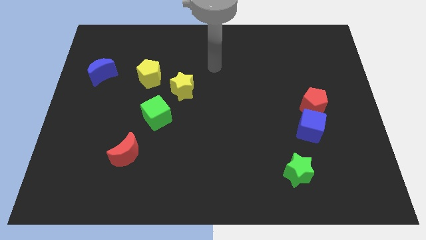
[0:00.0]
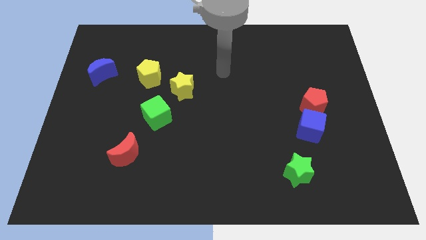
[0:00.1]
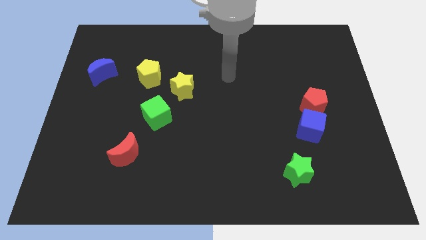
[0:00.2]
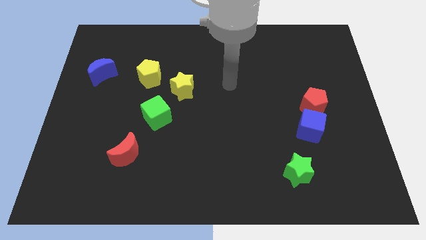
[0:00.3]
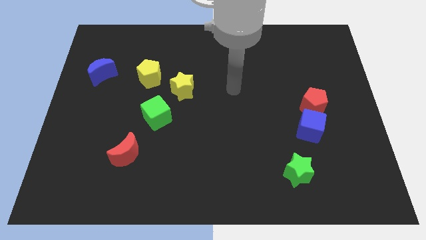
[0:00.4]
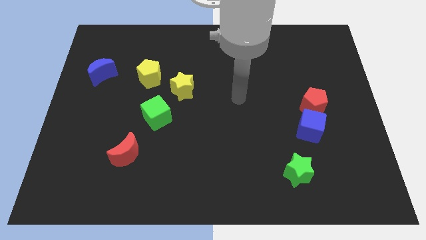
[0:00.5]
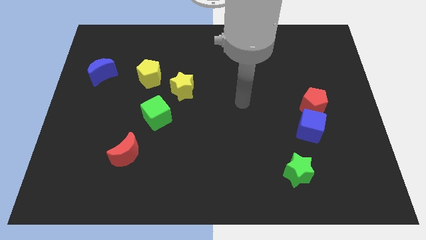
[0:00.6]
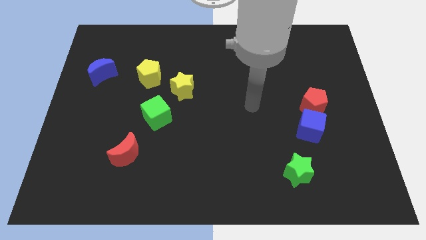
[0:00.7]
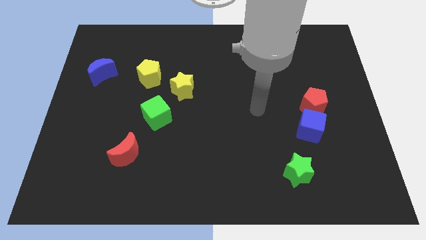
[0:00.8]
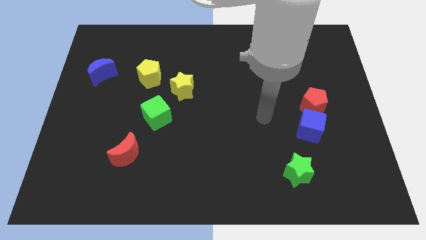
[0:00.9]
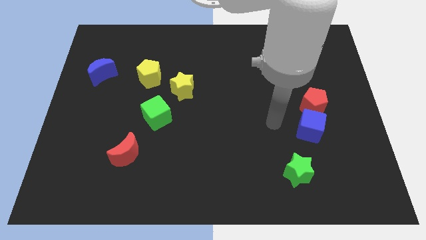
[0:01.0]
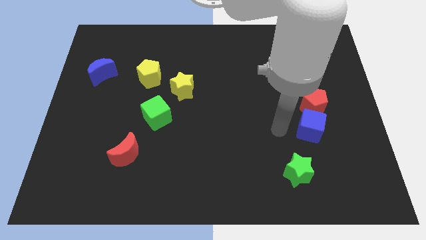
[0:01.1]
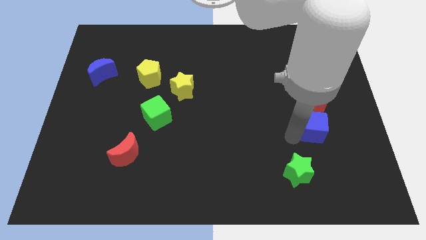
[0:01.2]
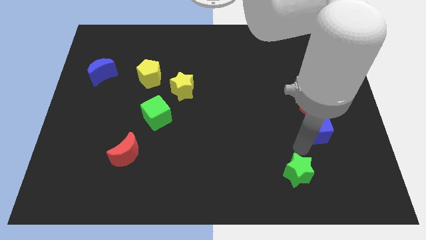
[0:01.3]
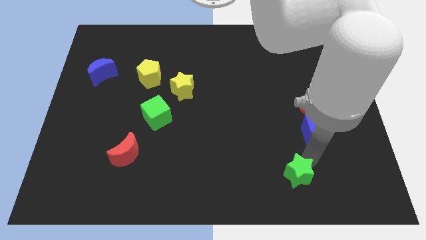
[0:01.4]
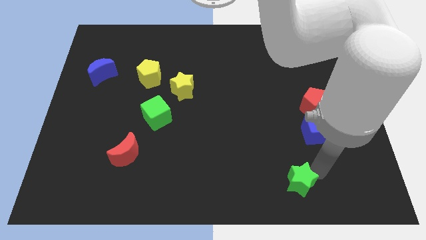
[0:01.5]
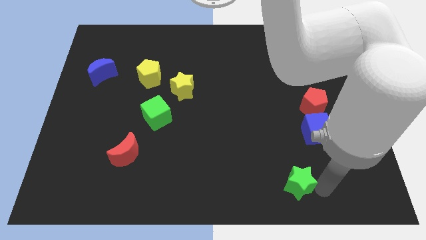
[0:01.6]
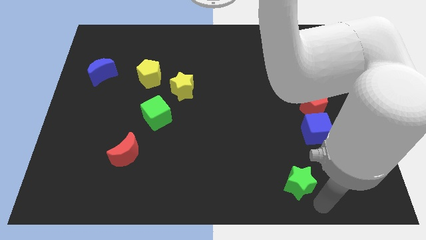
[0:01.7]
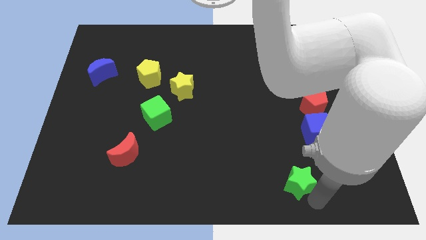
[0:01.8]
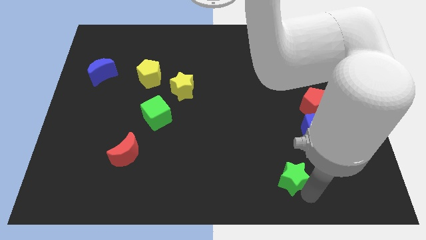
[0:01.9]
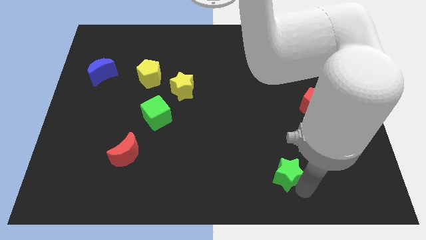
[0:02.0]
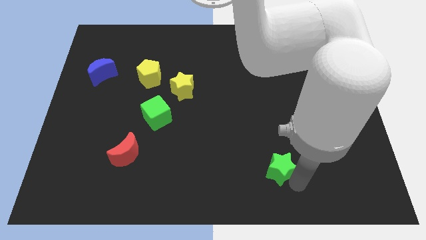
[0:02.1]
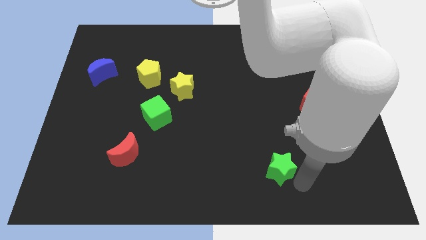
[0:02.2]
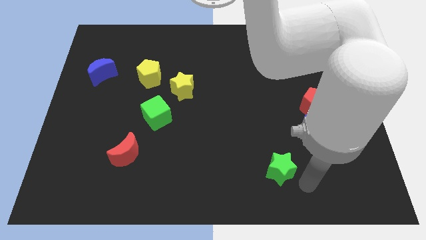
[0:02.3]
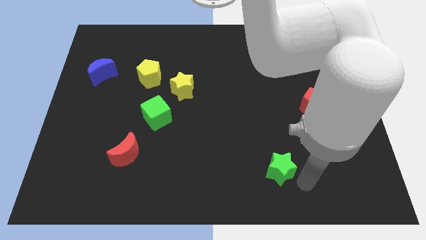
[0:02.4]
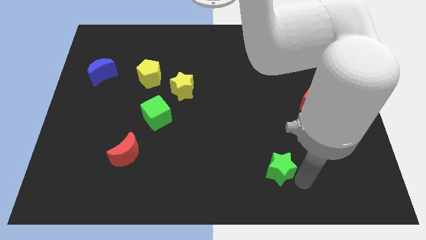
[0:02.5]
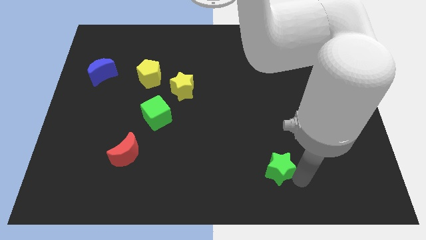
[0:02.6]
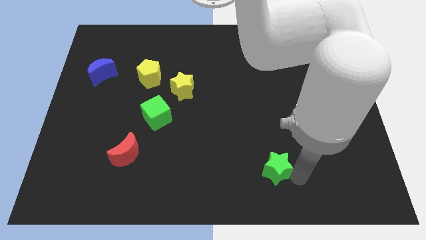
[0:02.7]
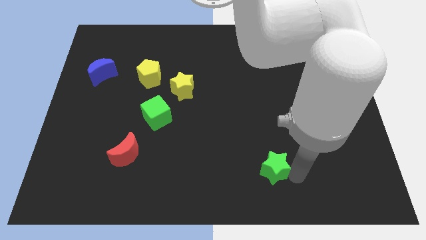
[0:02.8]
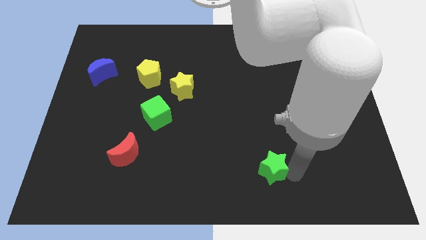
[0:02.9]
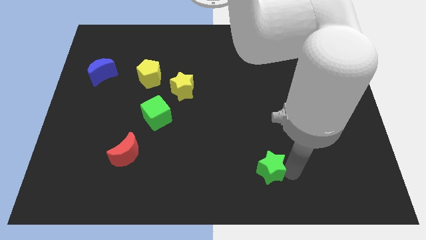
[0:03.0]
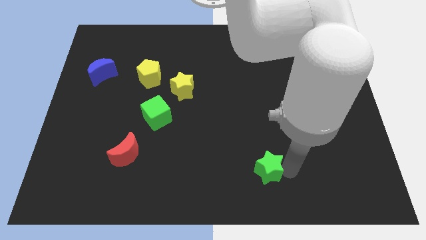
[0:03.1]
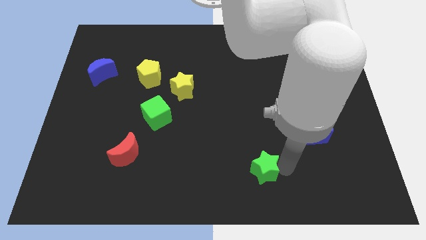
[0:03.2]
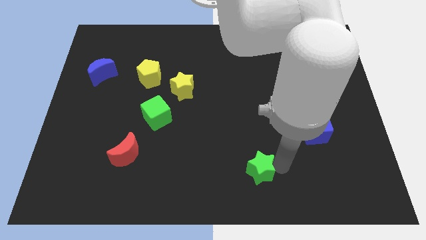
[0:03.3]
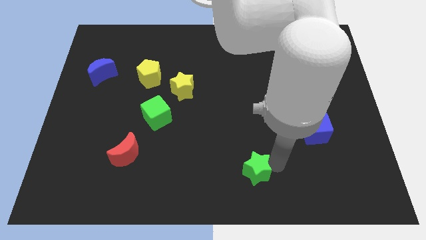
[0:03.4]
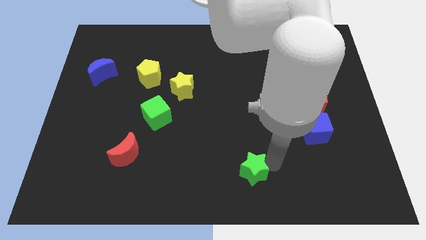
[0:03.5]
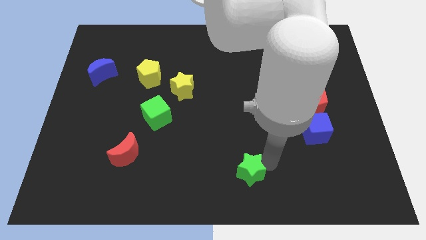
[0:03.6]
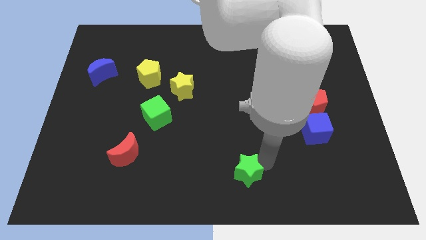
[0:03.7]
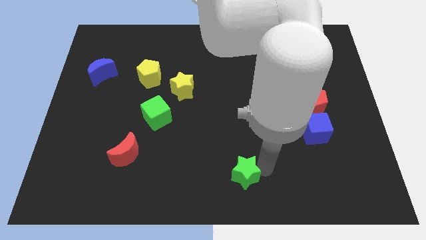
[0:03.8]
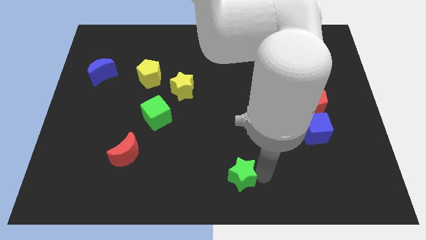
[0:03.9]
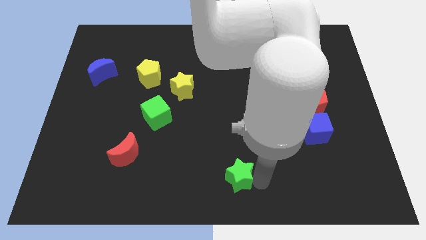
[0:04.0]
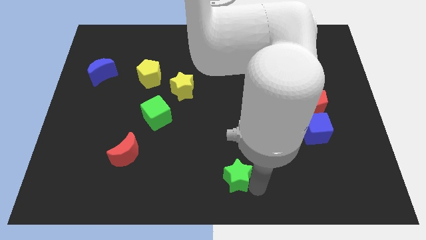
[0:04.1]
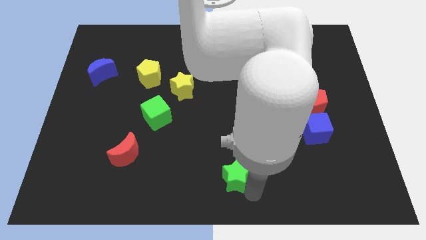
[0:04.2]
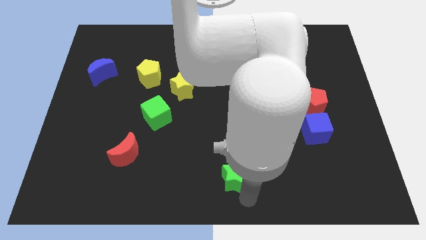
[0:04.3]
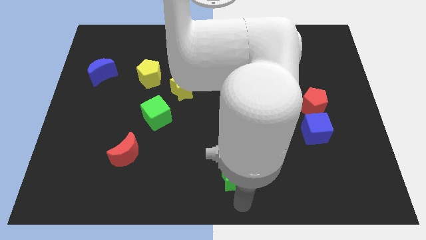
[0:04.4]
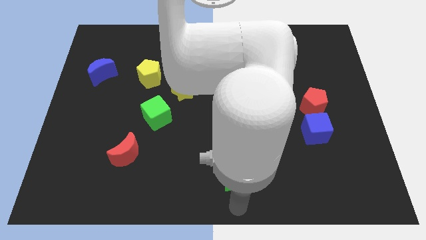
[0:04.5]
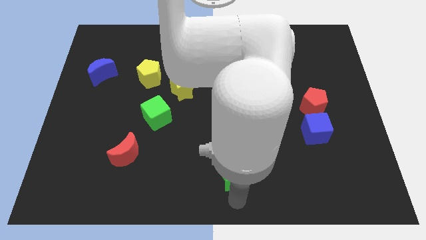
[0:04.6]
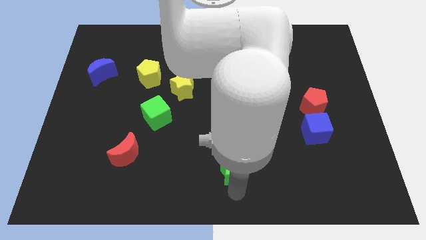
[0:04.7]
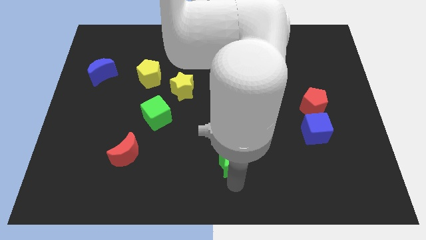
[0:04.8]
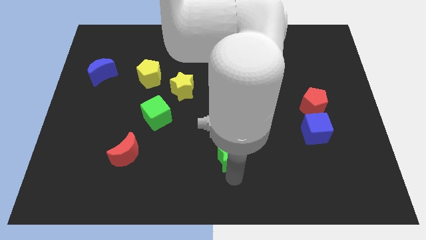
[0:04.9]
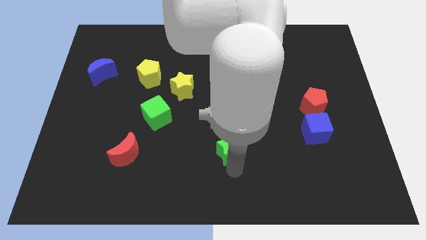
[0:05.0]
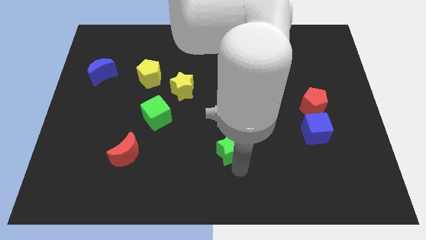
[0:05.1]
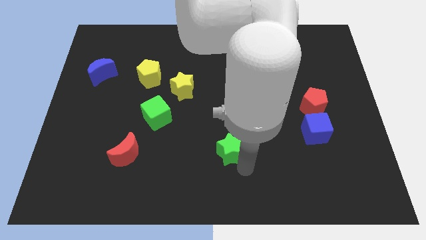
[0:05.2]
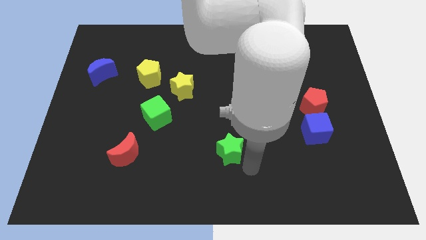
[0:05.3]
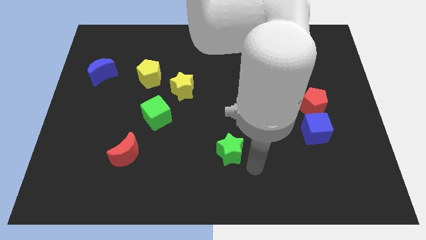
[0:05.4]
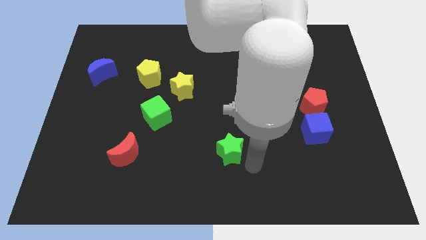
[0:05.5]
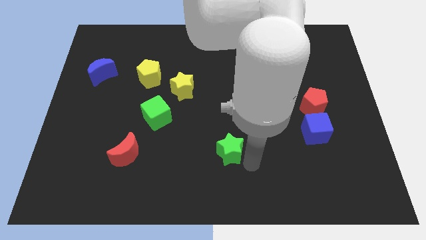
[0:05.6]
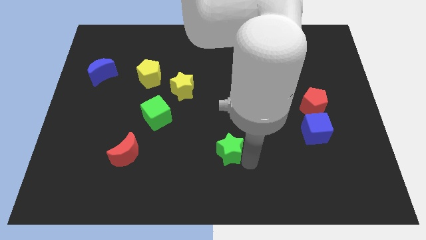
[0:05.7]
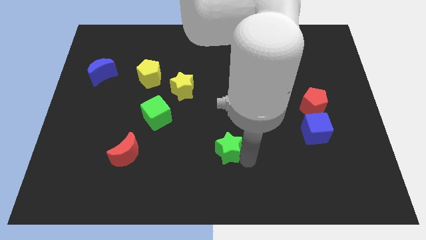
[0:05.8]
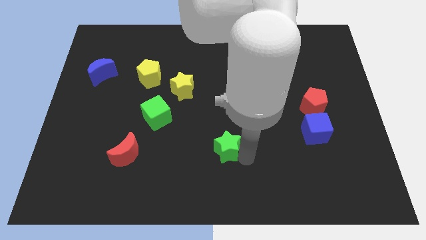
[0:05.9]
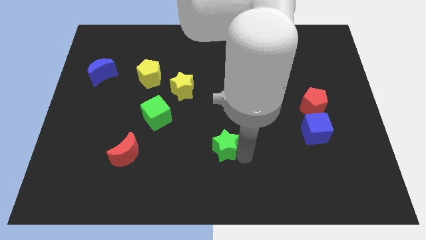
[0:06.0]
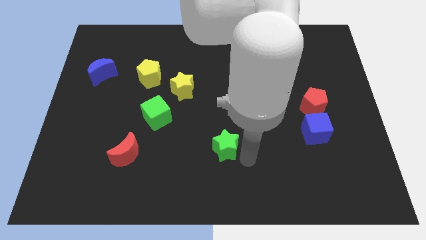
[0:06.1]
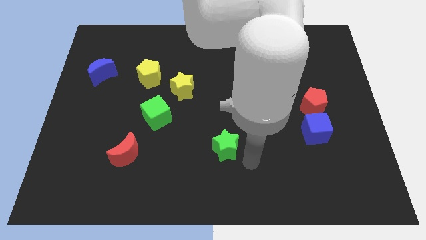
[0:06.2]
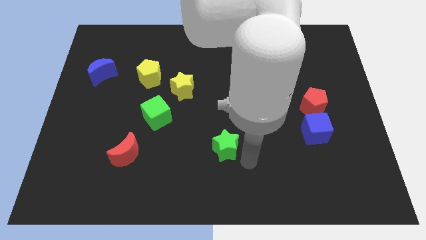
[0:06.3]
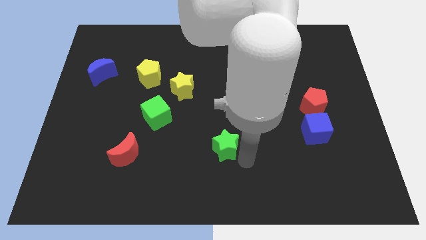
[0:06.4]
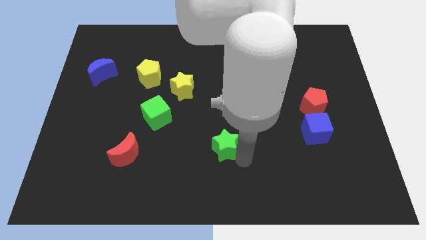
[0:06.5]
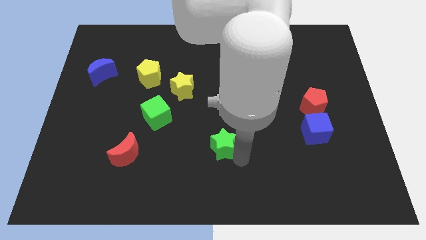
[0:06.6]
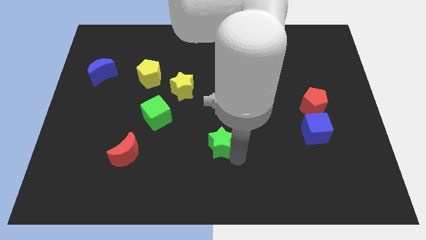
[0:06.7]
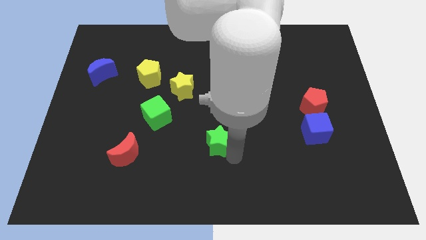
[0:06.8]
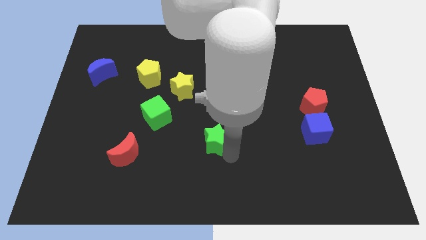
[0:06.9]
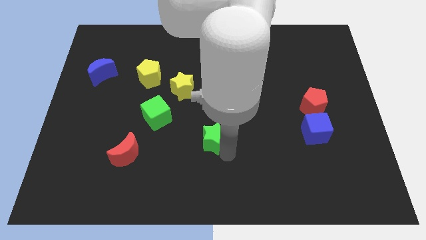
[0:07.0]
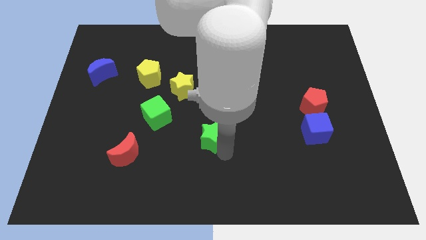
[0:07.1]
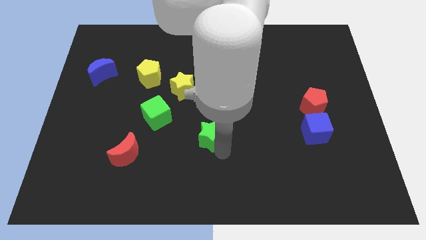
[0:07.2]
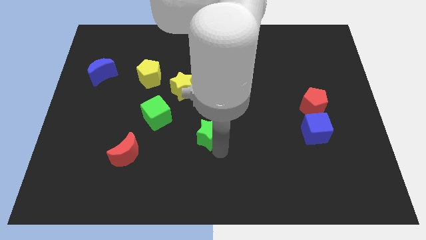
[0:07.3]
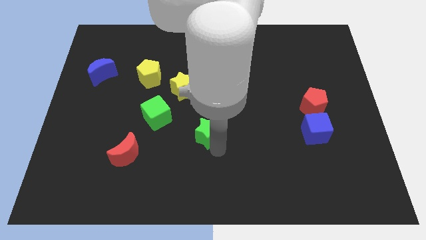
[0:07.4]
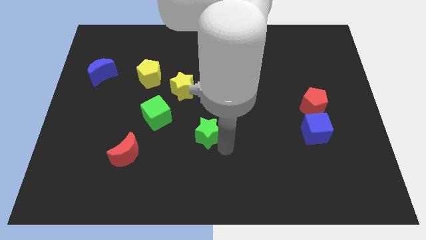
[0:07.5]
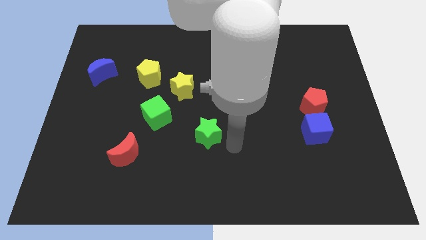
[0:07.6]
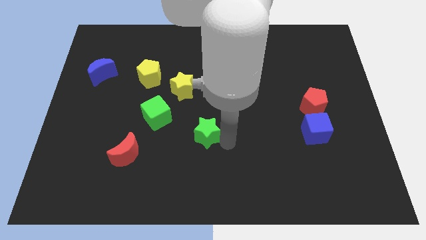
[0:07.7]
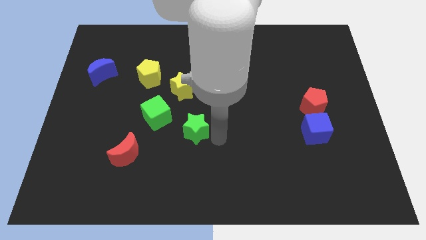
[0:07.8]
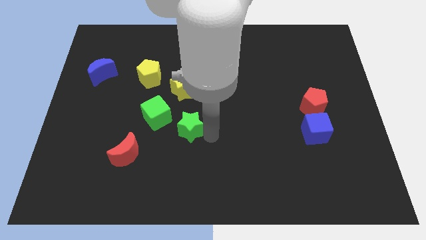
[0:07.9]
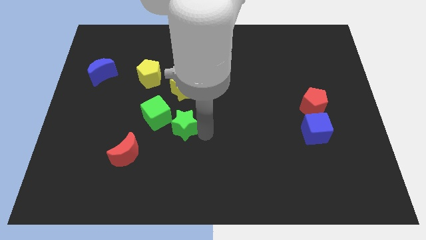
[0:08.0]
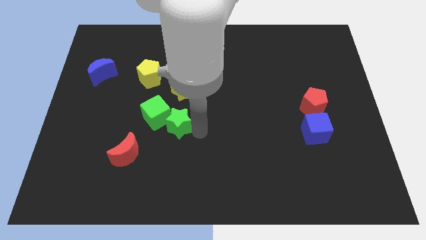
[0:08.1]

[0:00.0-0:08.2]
slide the green star close to the green cube
